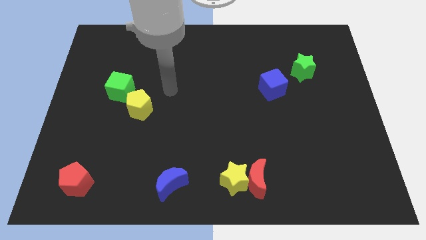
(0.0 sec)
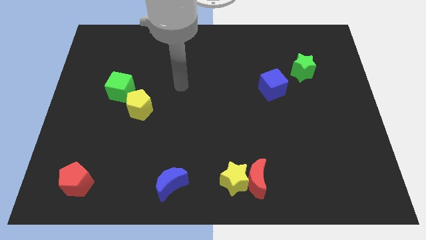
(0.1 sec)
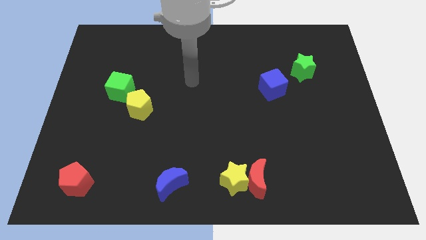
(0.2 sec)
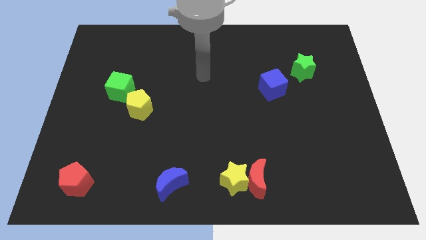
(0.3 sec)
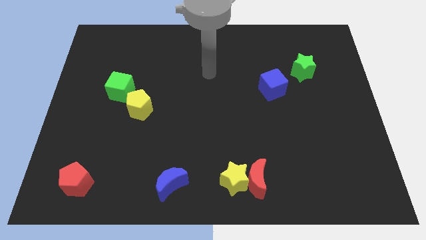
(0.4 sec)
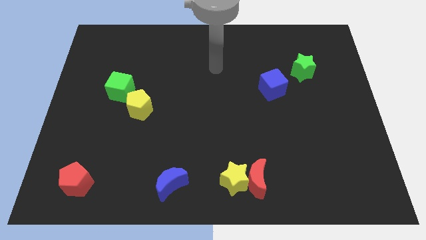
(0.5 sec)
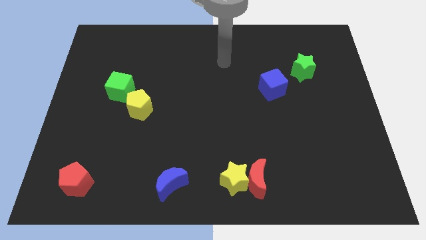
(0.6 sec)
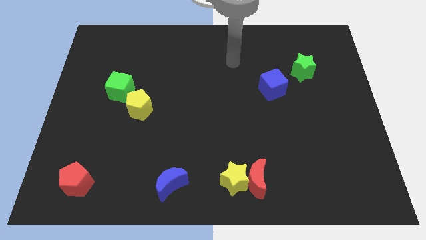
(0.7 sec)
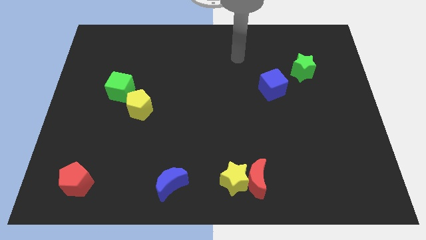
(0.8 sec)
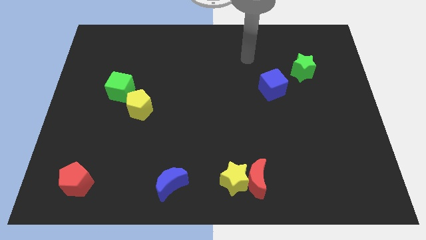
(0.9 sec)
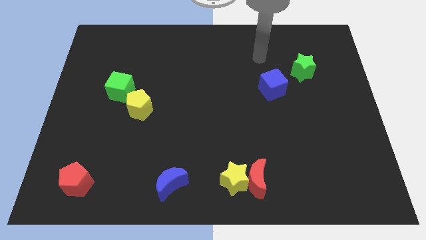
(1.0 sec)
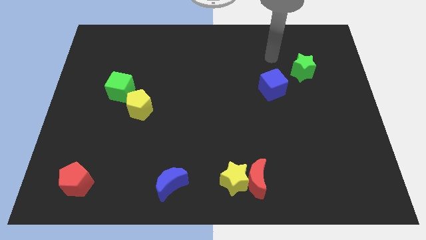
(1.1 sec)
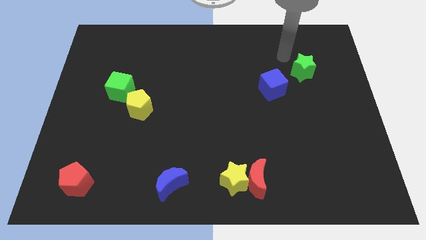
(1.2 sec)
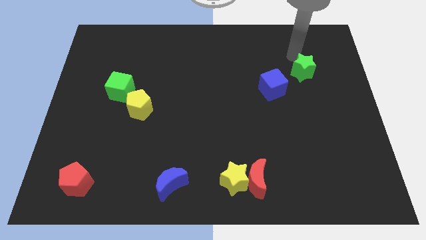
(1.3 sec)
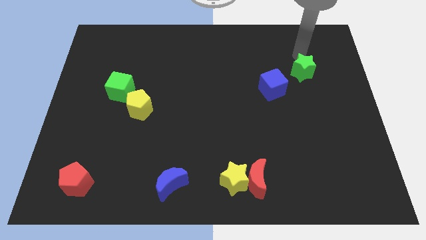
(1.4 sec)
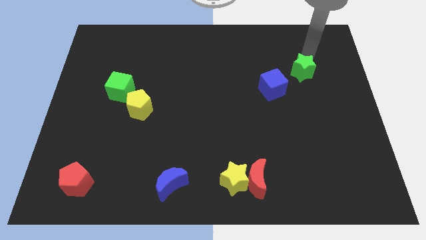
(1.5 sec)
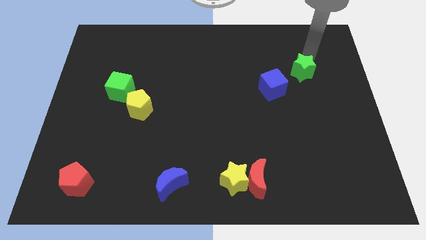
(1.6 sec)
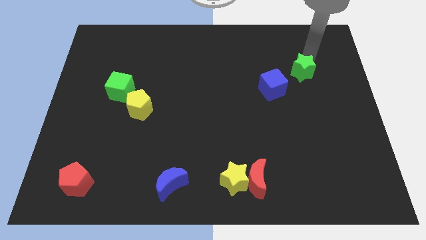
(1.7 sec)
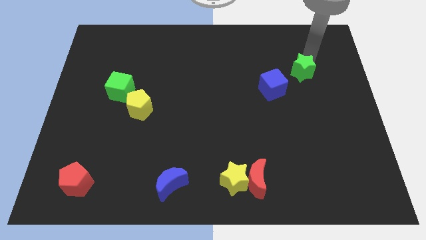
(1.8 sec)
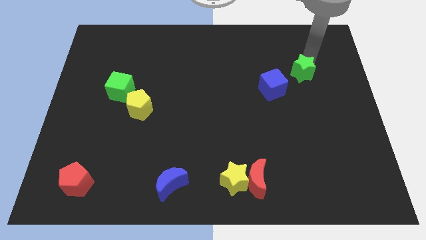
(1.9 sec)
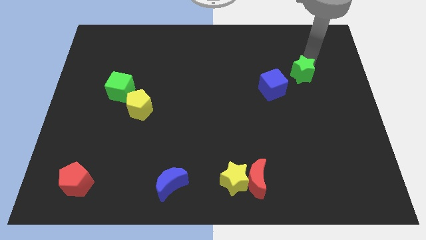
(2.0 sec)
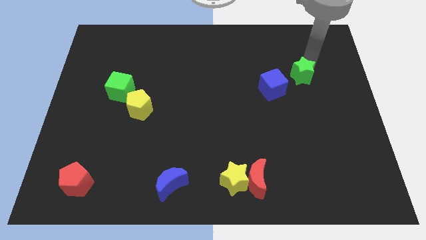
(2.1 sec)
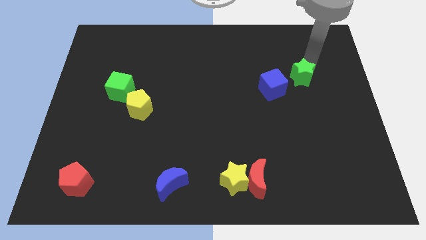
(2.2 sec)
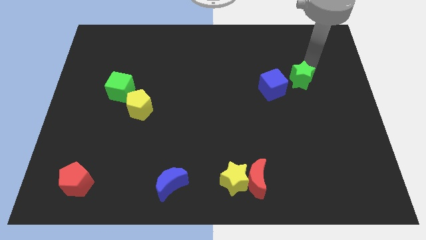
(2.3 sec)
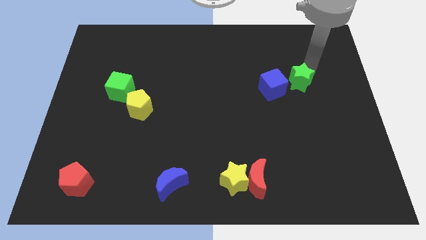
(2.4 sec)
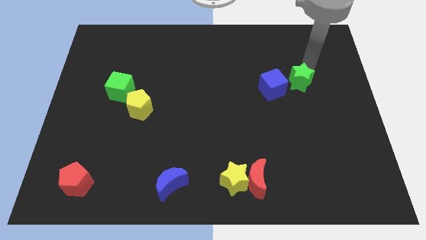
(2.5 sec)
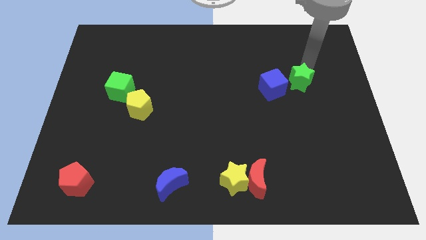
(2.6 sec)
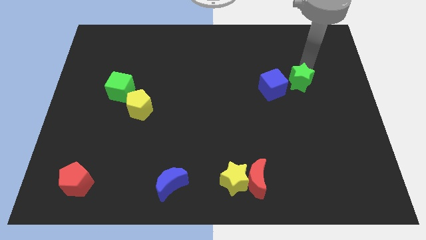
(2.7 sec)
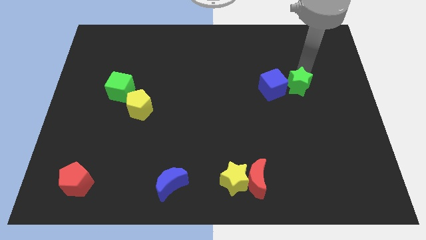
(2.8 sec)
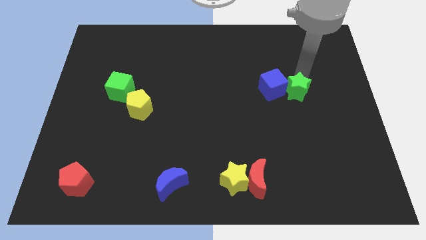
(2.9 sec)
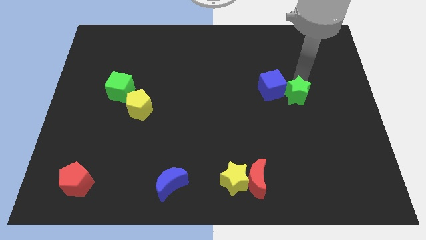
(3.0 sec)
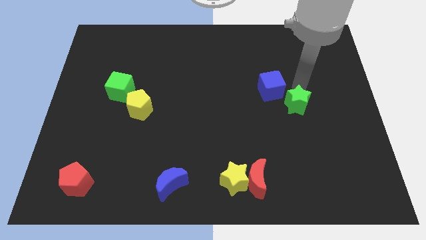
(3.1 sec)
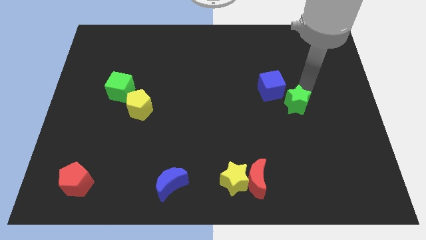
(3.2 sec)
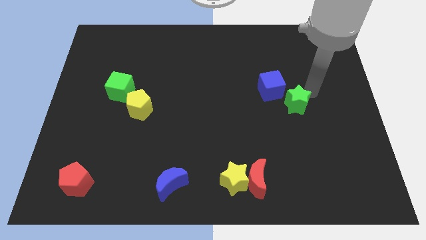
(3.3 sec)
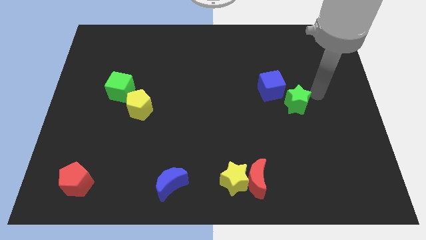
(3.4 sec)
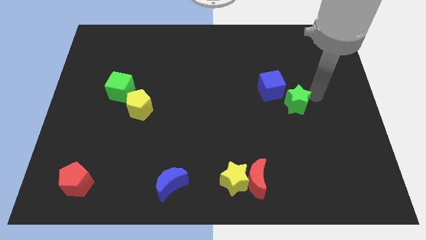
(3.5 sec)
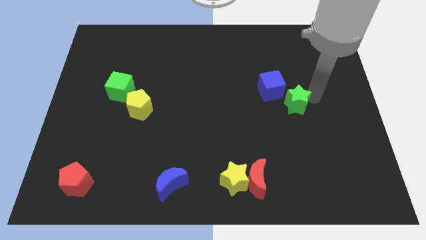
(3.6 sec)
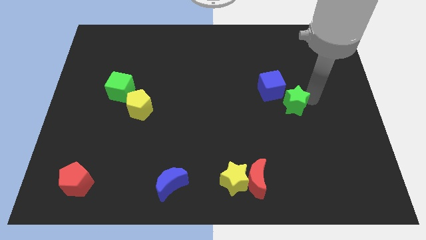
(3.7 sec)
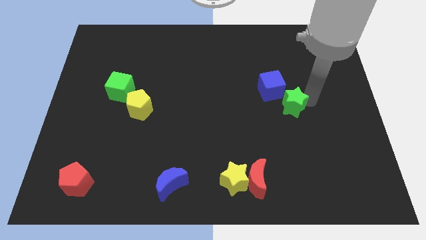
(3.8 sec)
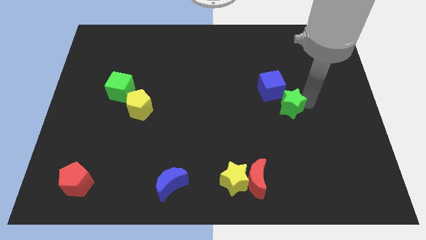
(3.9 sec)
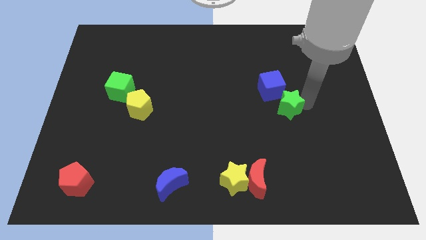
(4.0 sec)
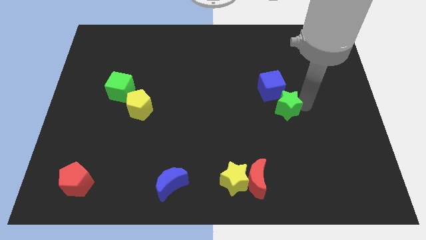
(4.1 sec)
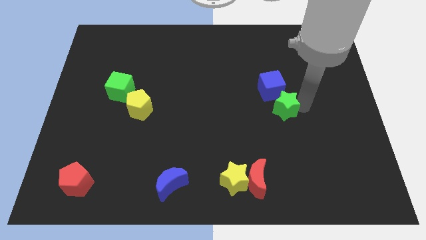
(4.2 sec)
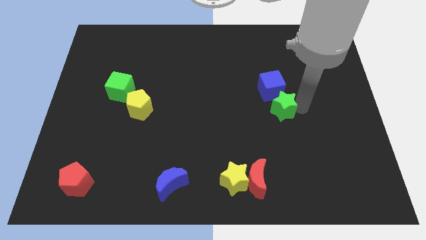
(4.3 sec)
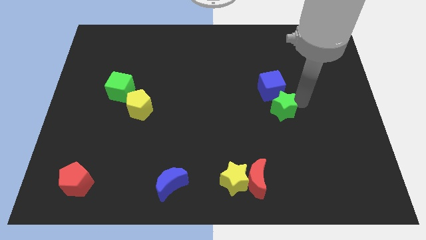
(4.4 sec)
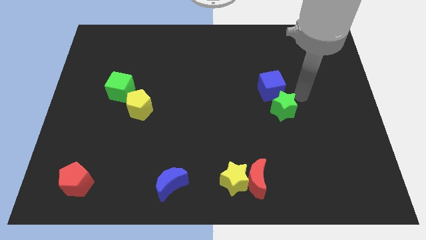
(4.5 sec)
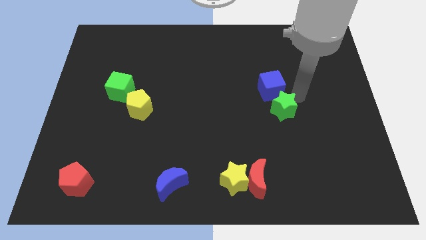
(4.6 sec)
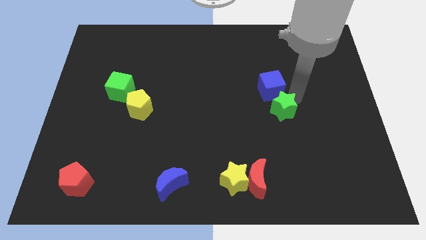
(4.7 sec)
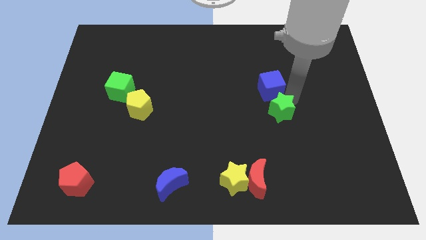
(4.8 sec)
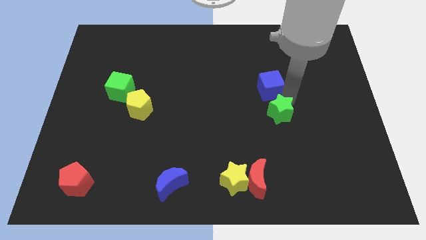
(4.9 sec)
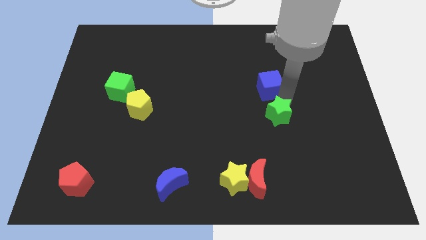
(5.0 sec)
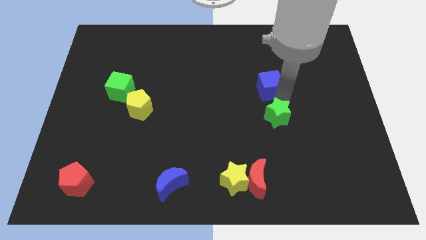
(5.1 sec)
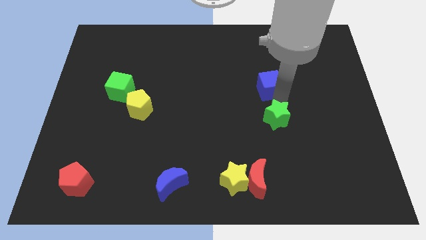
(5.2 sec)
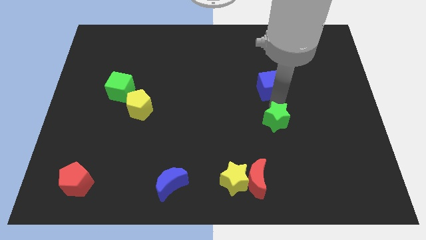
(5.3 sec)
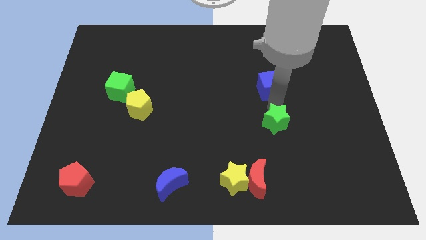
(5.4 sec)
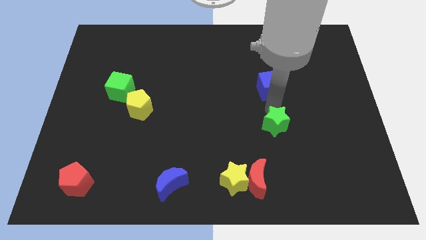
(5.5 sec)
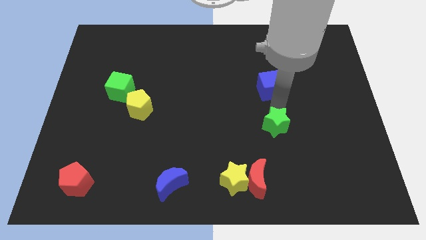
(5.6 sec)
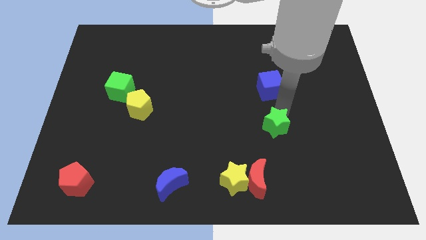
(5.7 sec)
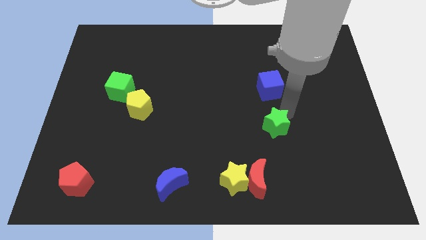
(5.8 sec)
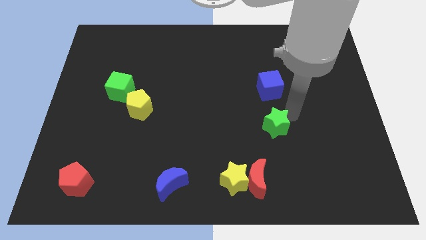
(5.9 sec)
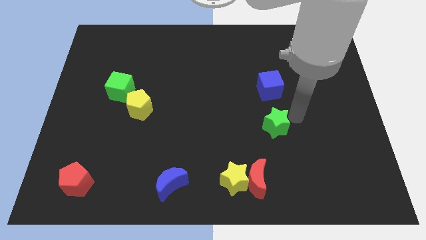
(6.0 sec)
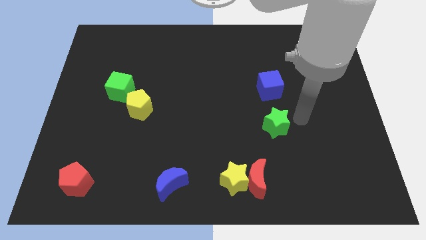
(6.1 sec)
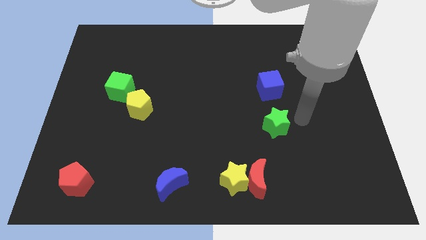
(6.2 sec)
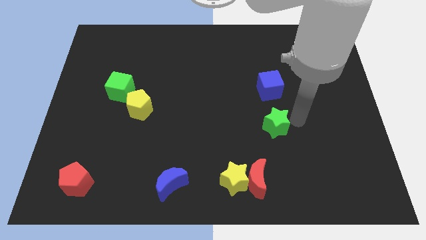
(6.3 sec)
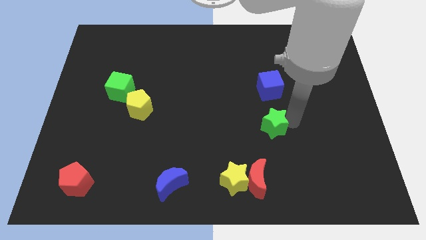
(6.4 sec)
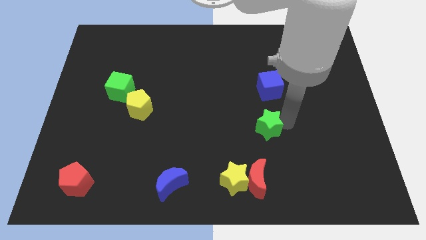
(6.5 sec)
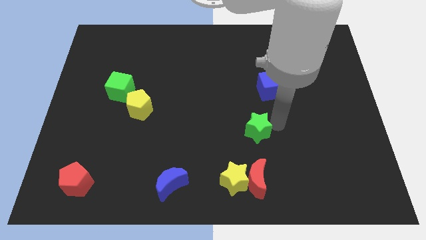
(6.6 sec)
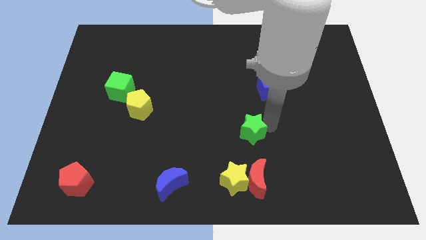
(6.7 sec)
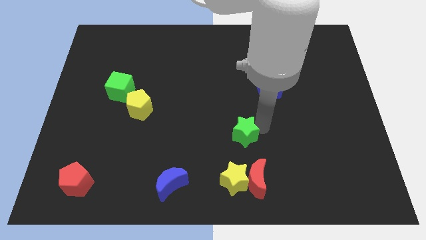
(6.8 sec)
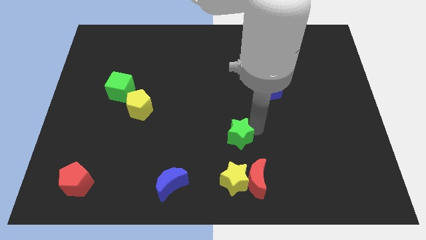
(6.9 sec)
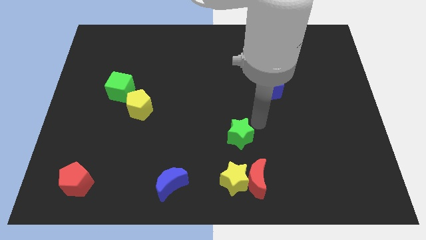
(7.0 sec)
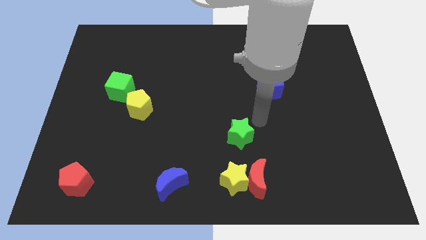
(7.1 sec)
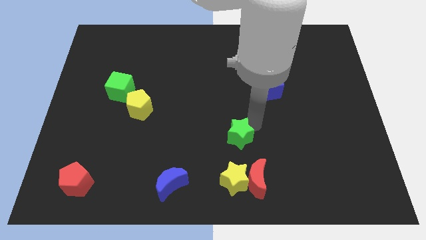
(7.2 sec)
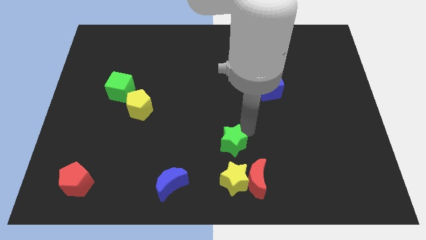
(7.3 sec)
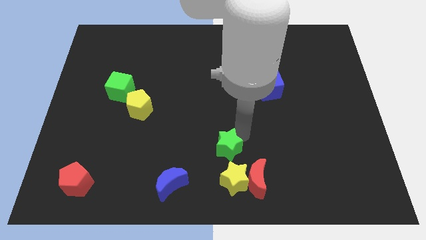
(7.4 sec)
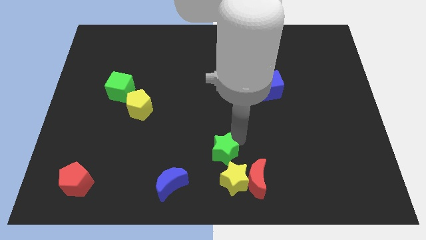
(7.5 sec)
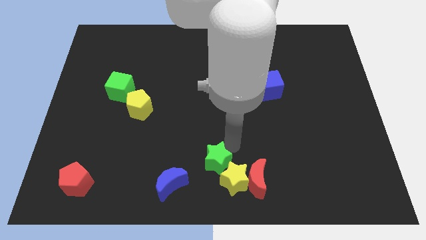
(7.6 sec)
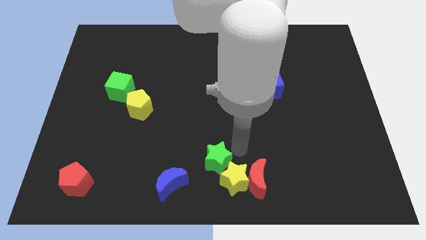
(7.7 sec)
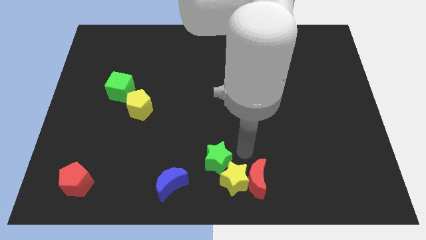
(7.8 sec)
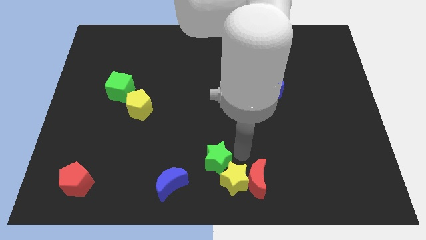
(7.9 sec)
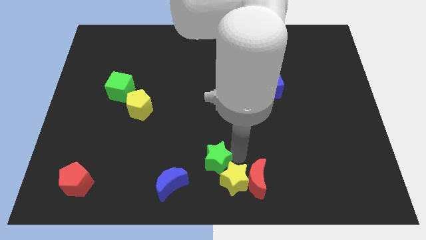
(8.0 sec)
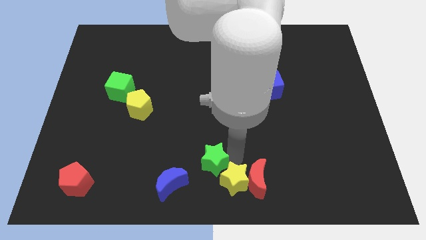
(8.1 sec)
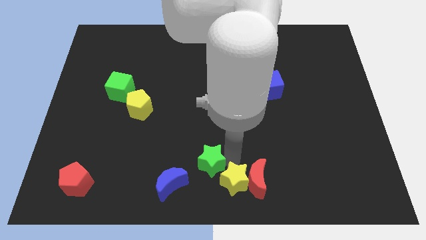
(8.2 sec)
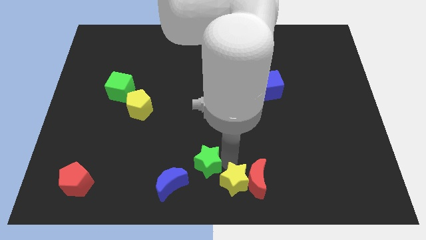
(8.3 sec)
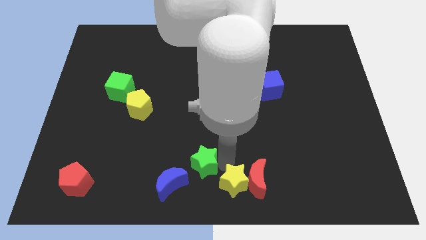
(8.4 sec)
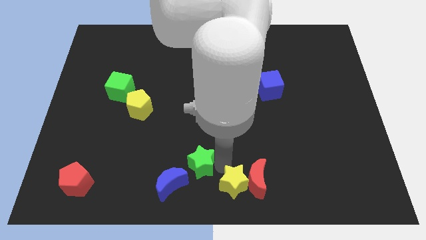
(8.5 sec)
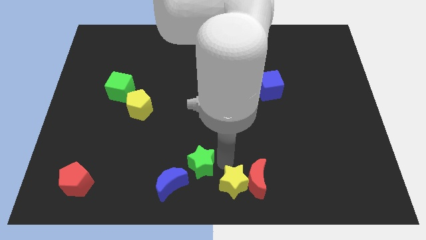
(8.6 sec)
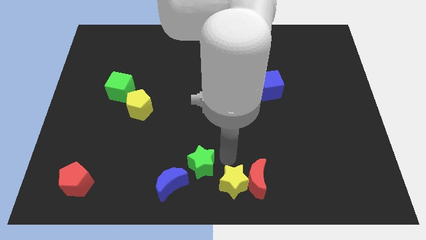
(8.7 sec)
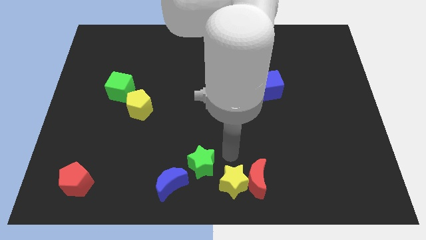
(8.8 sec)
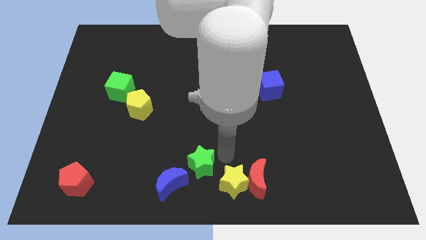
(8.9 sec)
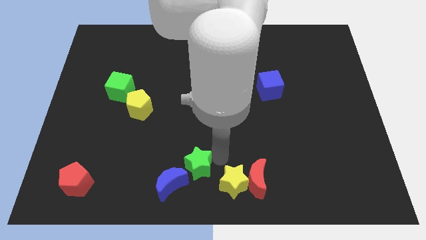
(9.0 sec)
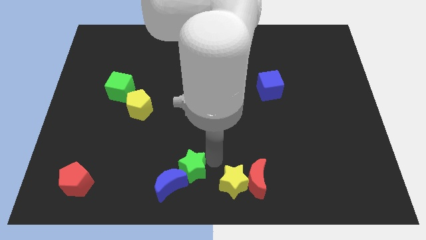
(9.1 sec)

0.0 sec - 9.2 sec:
put the green star to the blue moon
